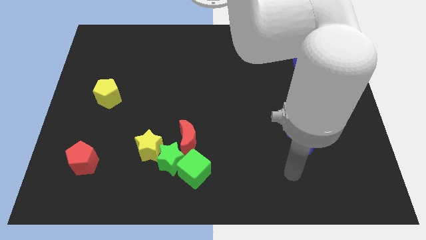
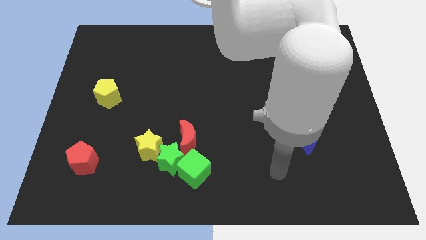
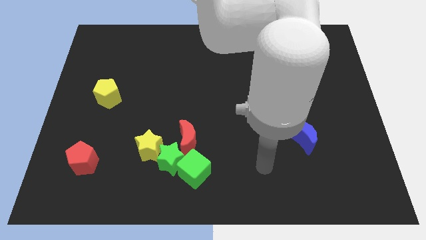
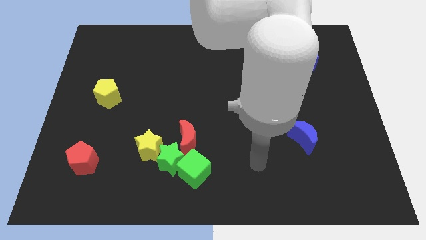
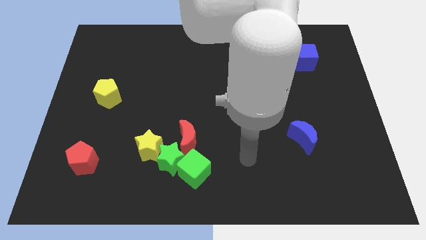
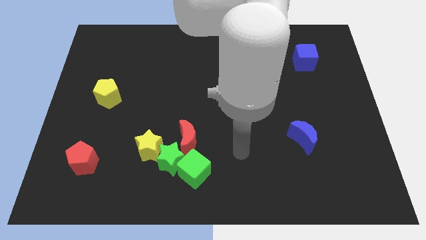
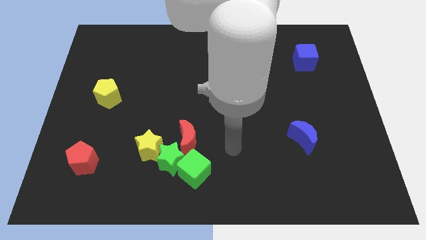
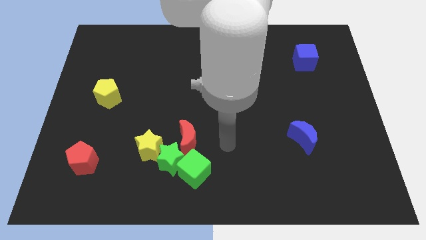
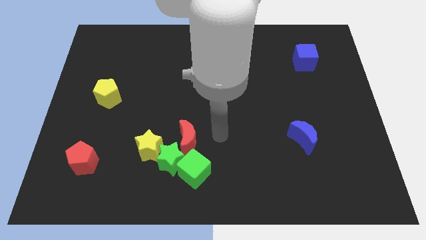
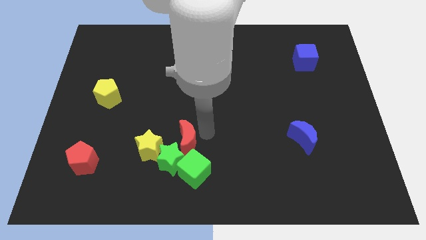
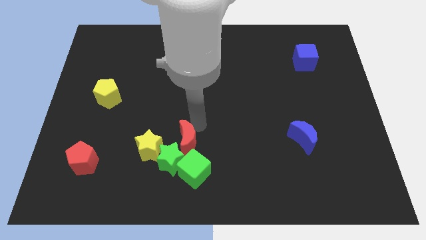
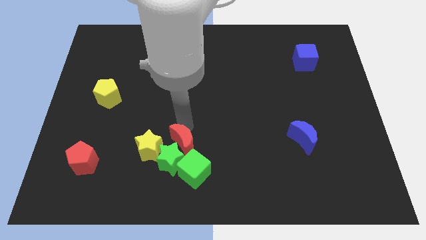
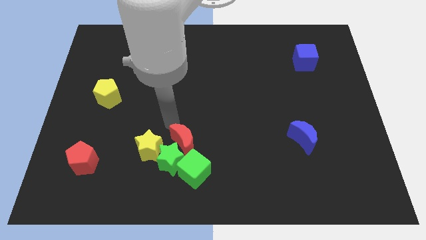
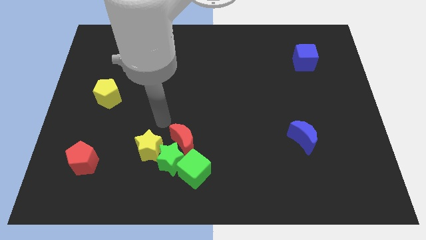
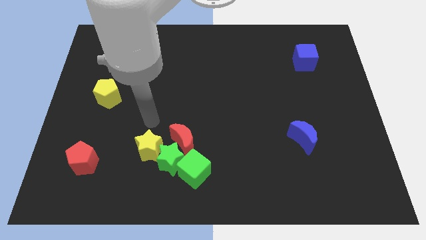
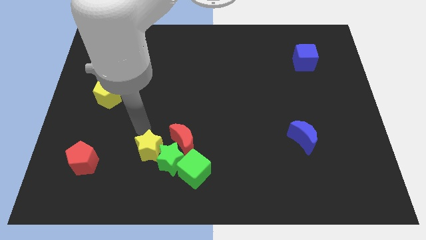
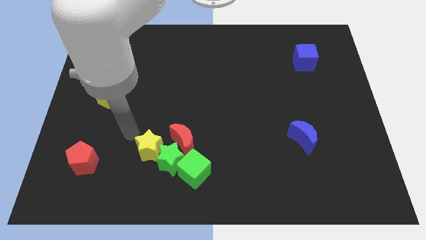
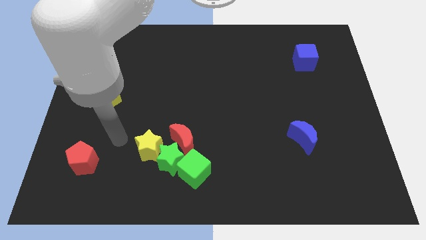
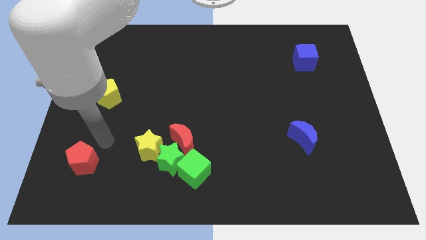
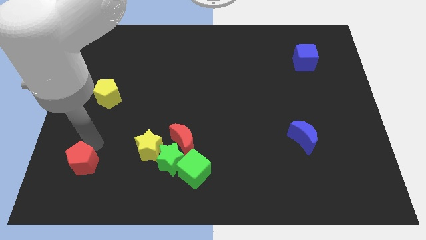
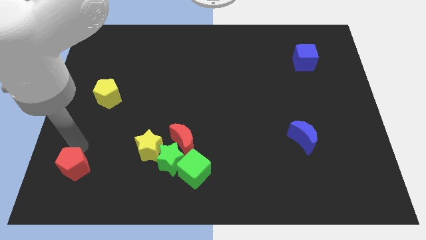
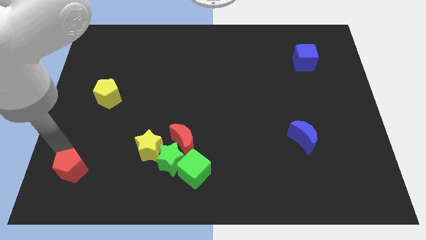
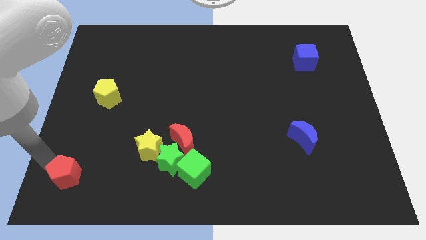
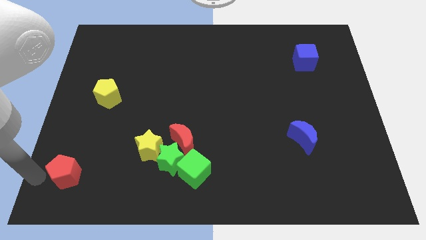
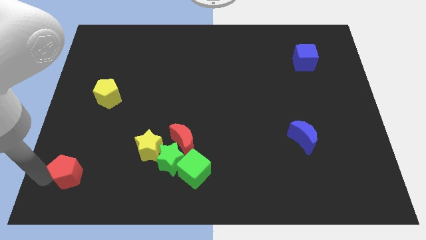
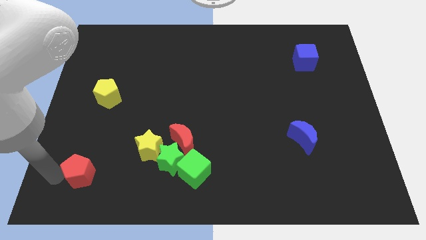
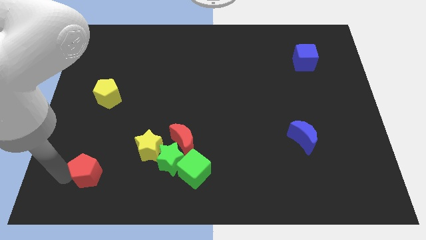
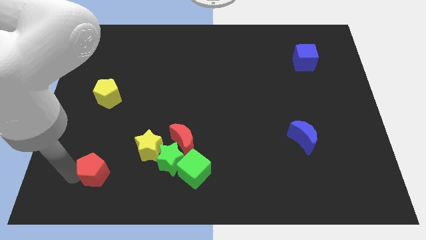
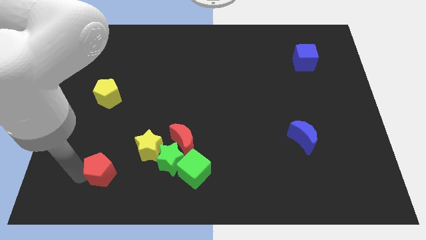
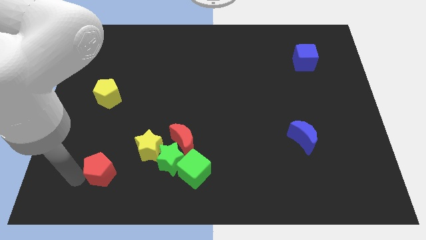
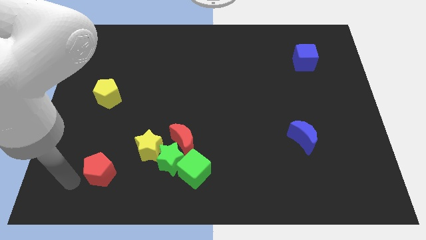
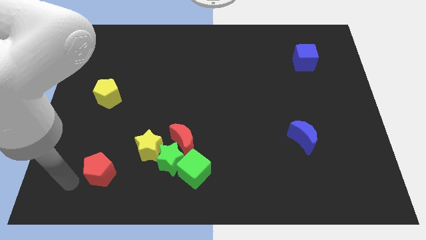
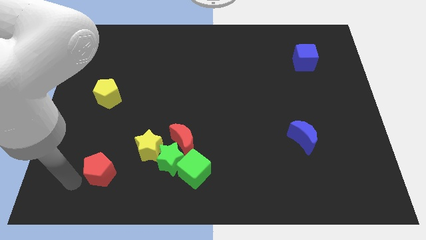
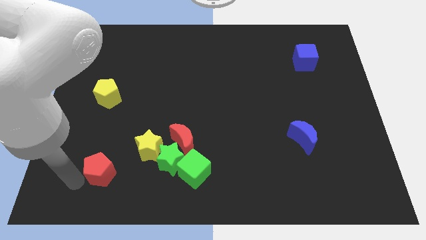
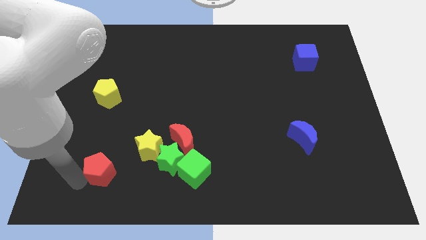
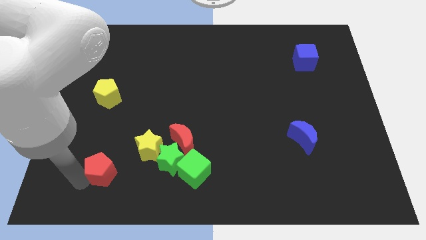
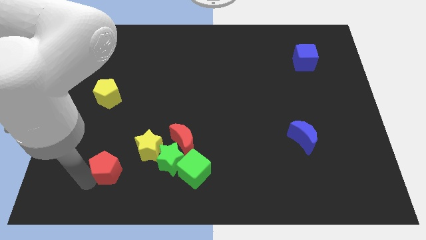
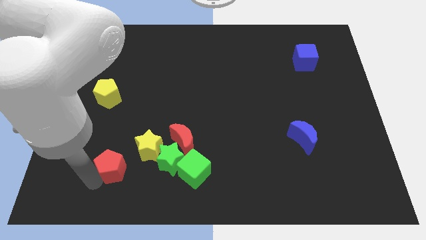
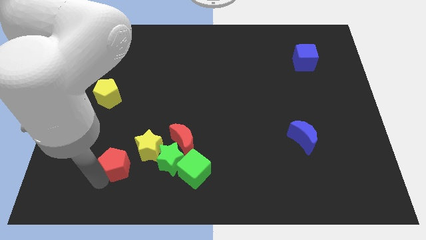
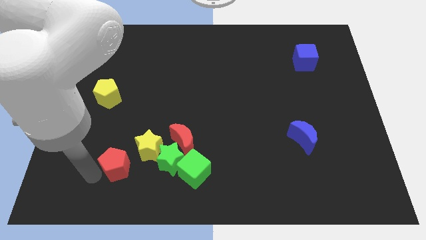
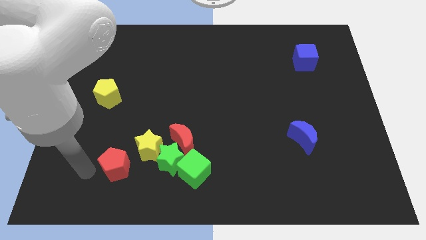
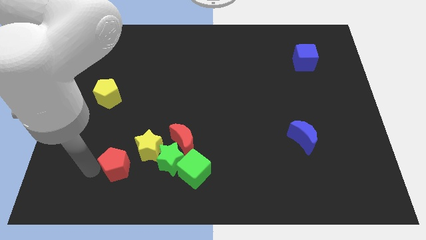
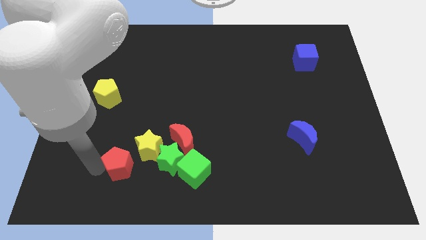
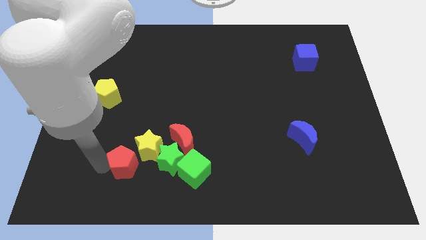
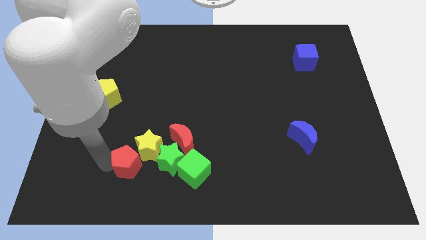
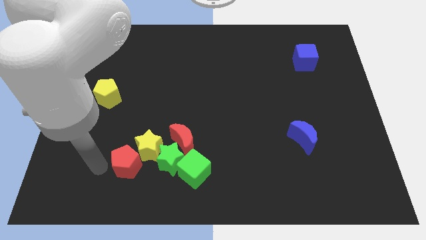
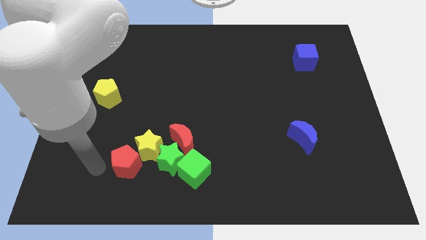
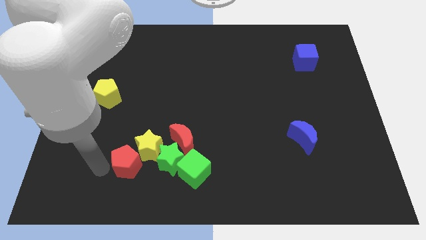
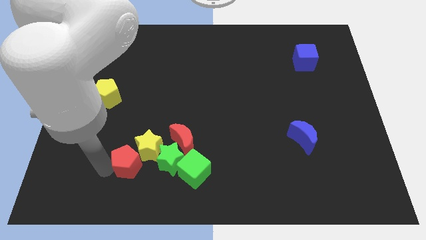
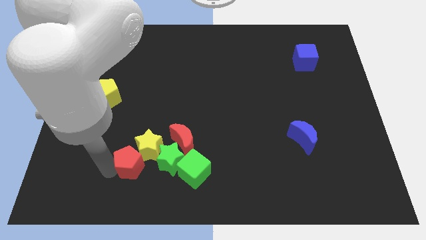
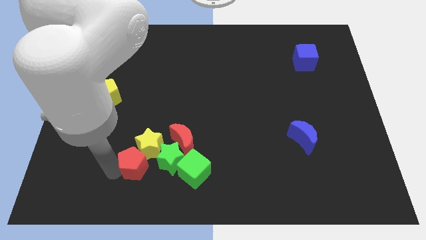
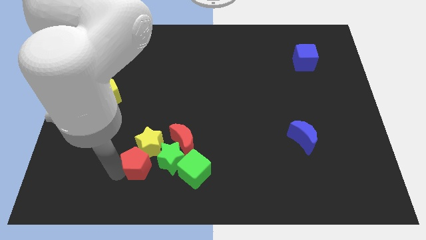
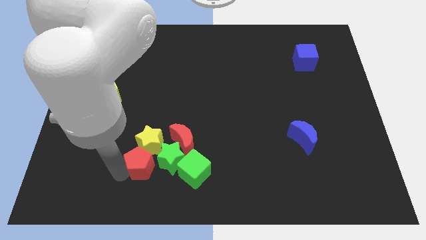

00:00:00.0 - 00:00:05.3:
push the red pentagon close to the green star

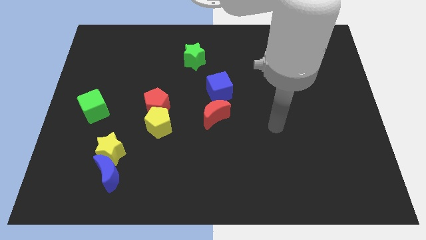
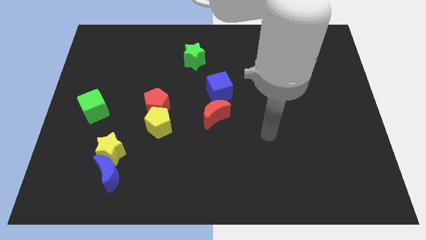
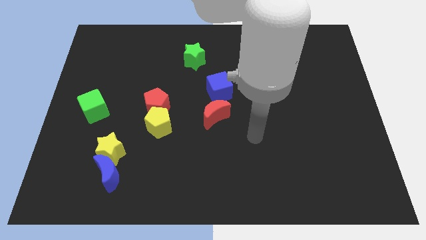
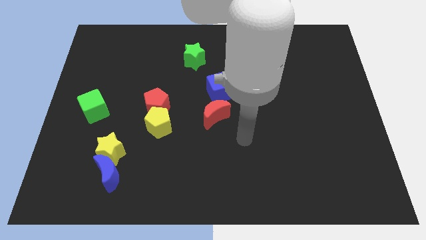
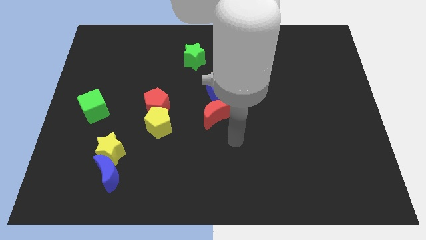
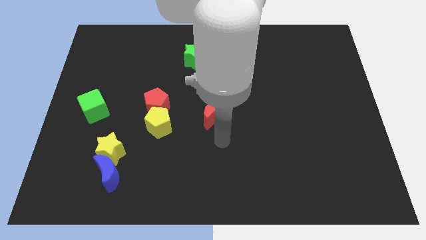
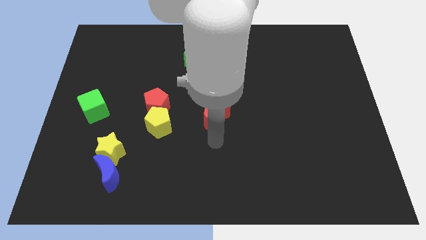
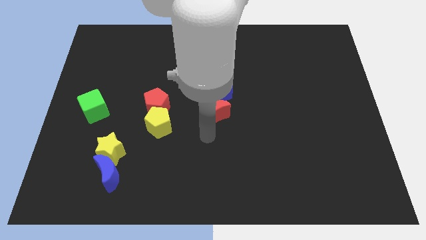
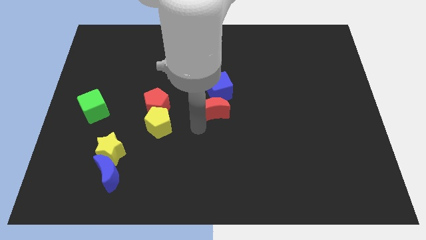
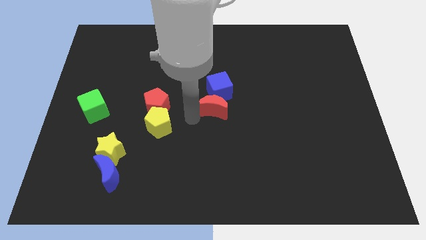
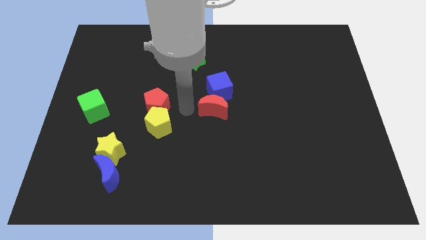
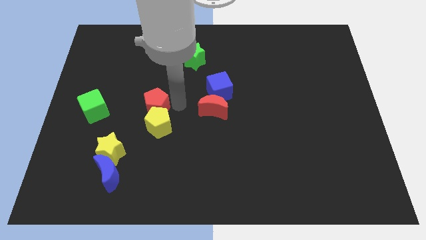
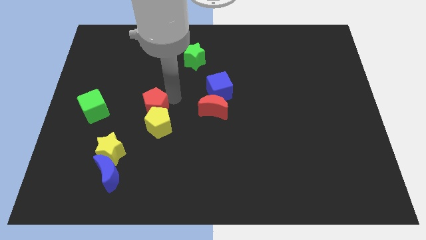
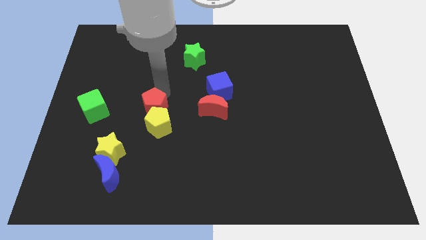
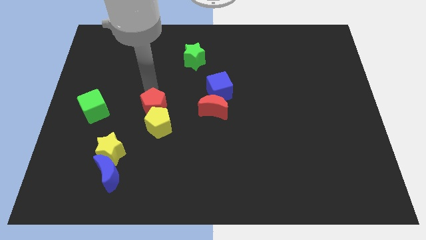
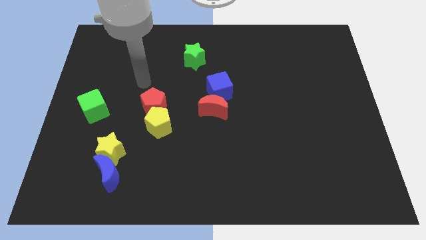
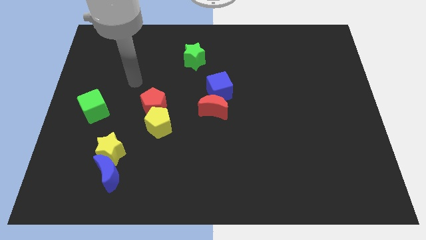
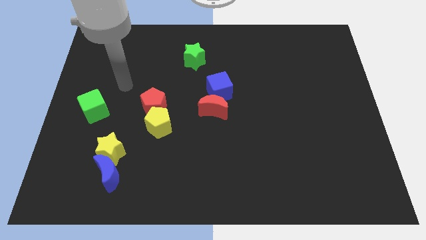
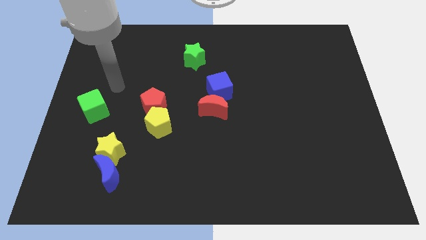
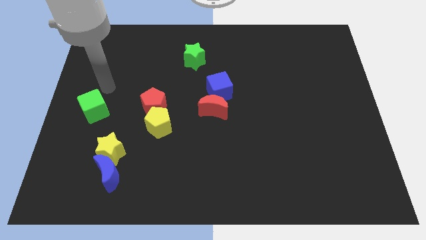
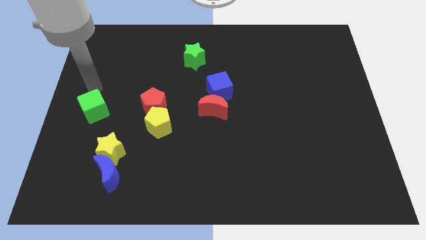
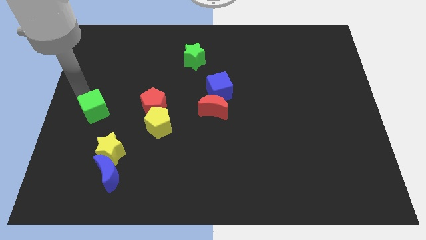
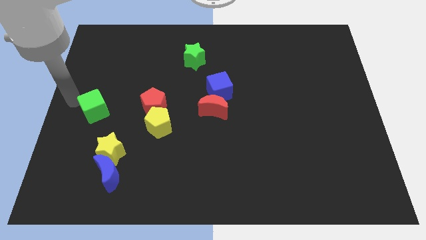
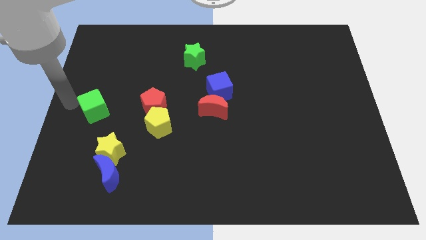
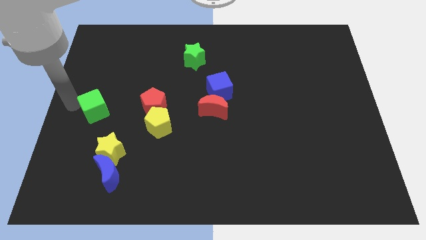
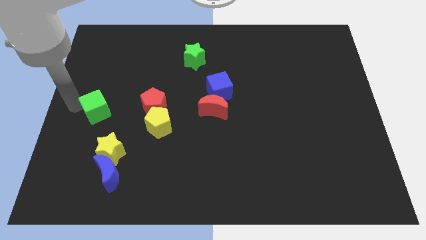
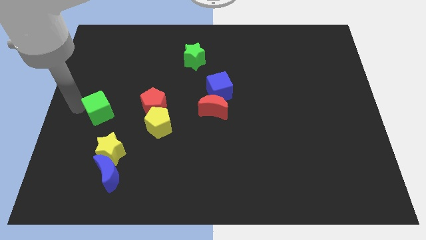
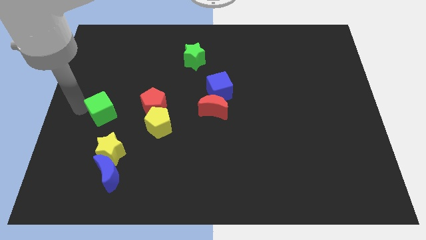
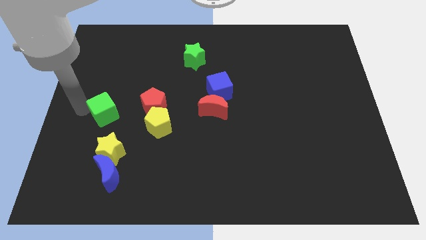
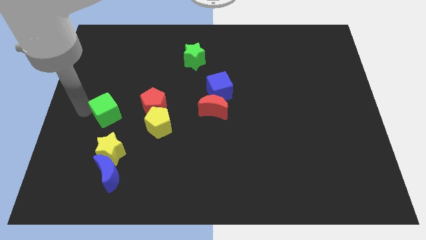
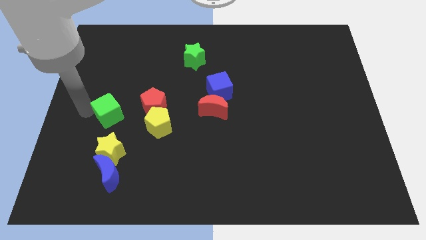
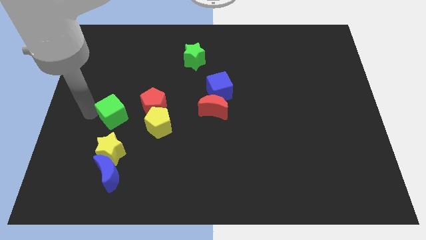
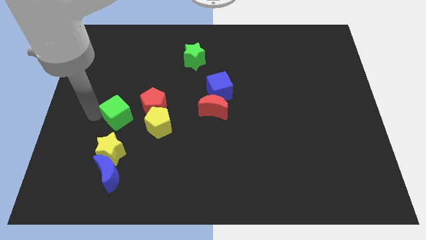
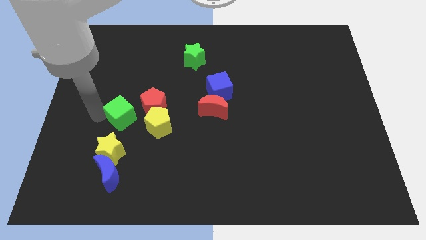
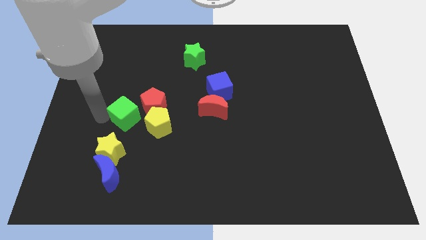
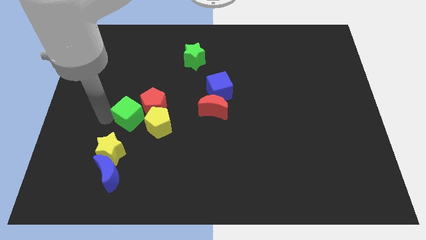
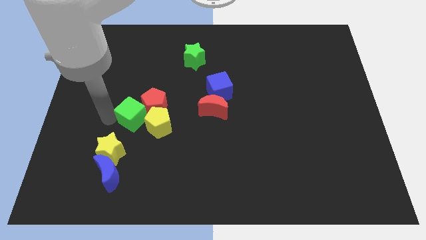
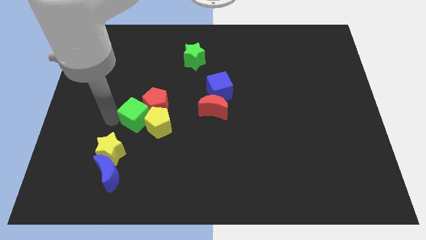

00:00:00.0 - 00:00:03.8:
push the green cube close to the yellow pentagon
